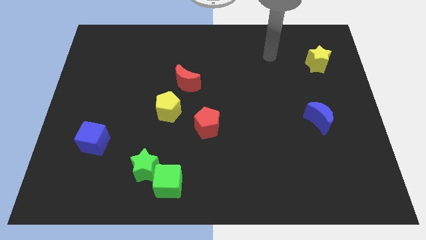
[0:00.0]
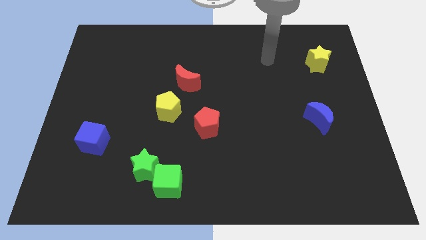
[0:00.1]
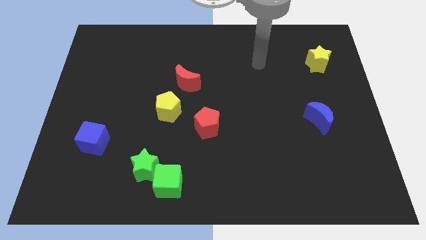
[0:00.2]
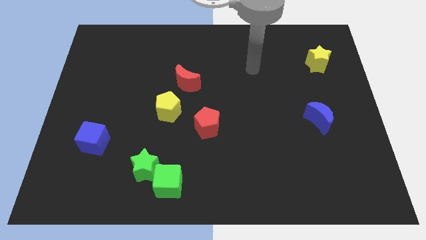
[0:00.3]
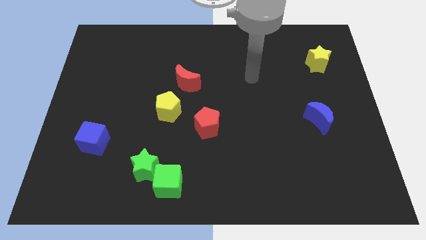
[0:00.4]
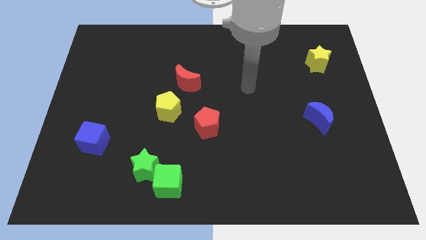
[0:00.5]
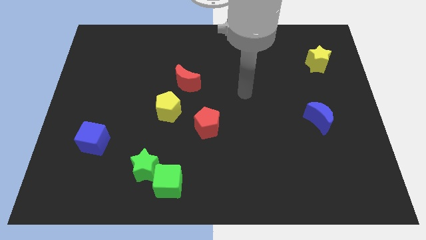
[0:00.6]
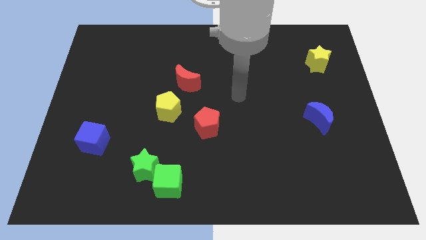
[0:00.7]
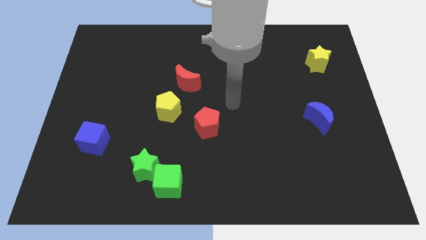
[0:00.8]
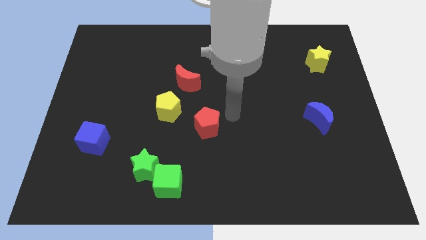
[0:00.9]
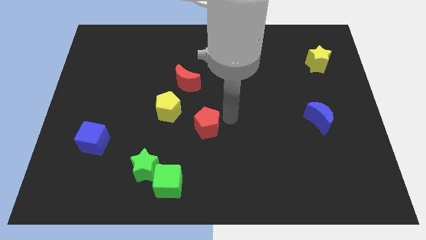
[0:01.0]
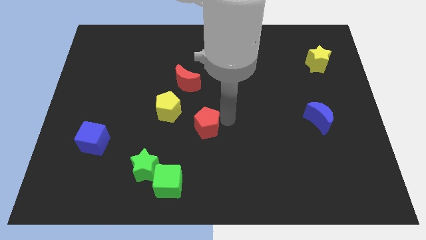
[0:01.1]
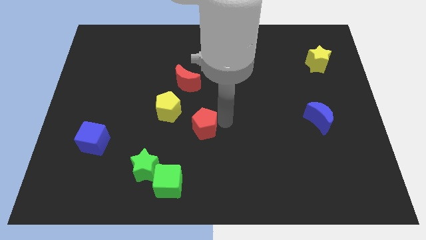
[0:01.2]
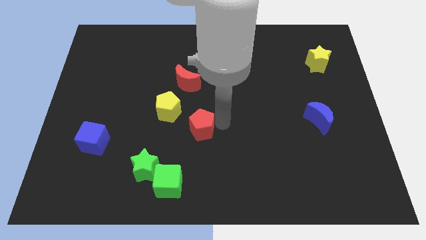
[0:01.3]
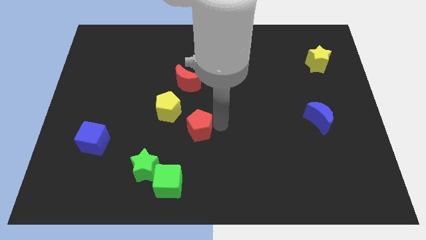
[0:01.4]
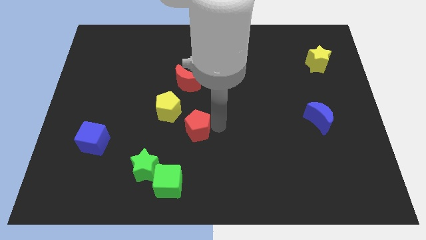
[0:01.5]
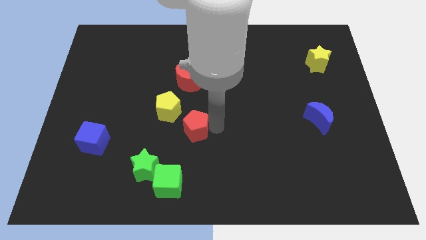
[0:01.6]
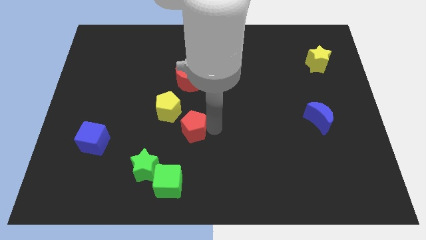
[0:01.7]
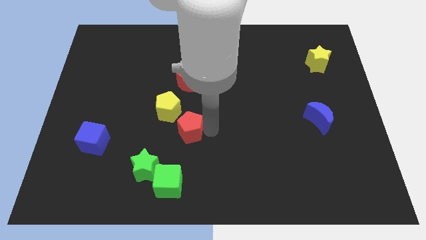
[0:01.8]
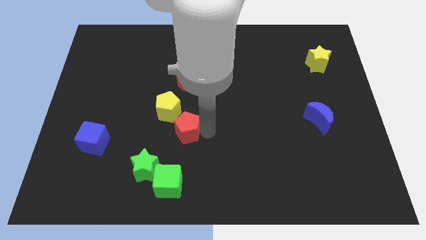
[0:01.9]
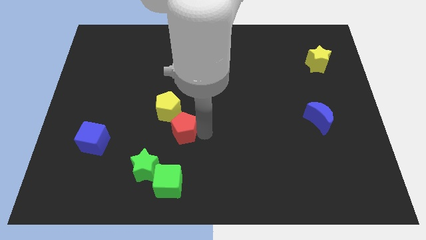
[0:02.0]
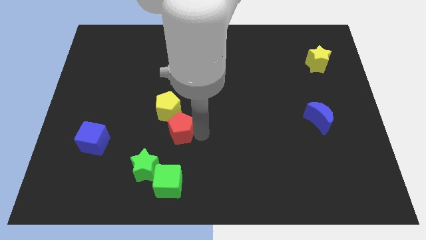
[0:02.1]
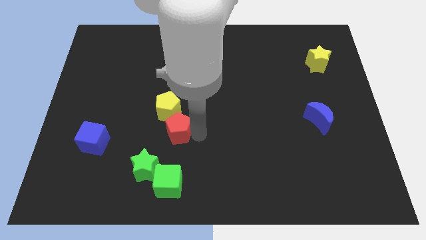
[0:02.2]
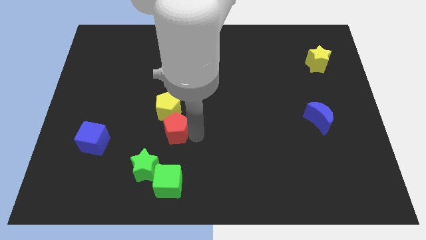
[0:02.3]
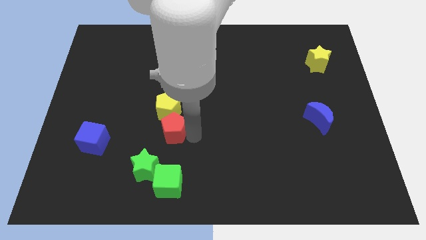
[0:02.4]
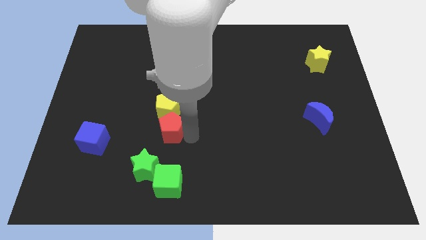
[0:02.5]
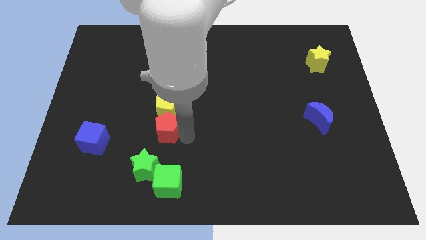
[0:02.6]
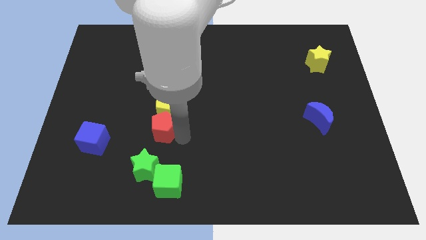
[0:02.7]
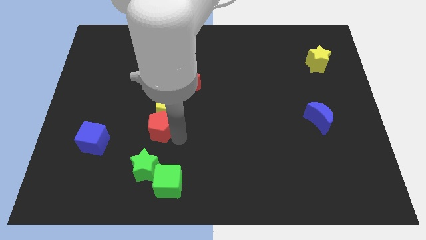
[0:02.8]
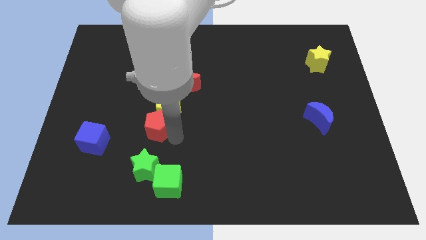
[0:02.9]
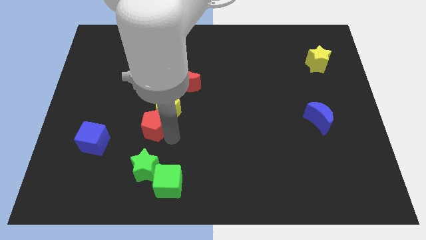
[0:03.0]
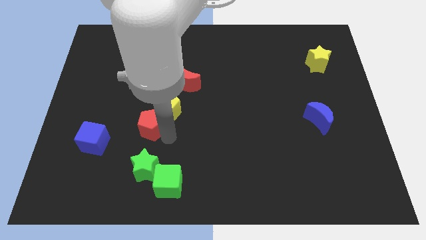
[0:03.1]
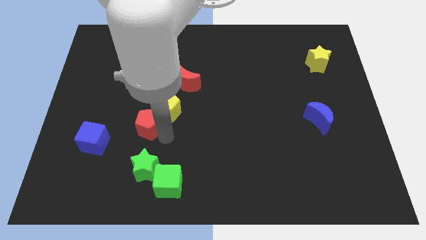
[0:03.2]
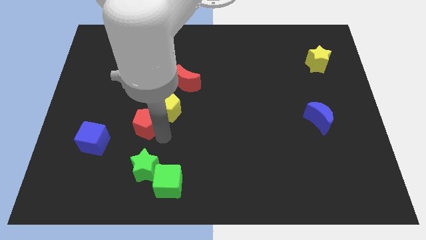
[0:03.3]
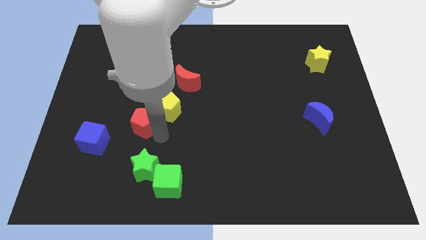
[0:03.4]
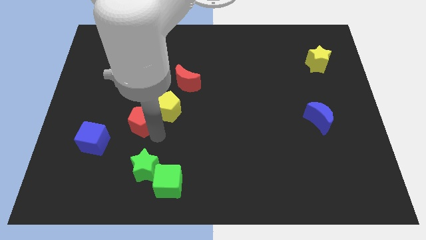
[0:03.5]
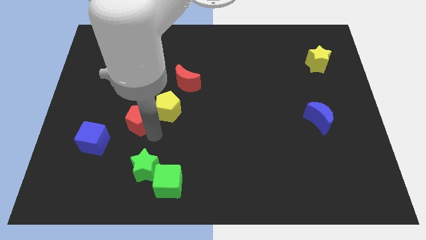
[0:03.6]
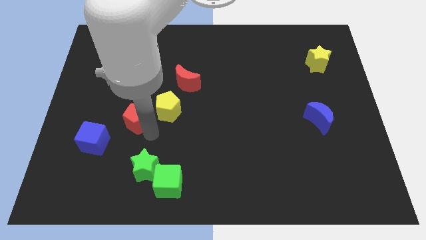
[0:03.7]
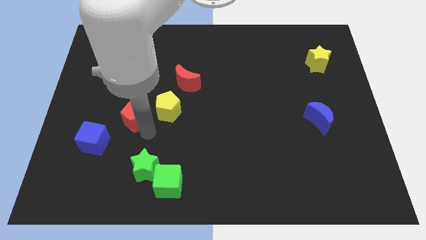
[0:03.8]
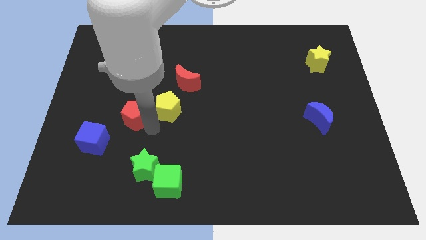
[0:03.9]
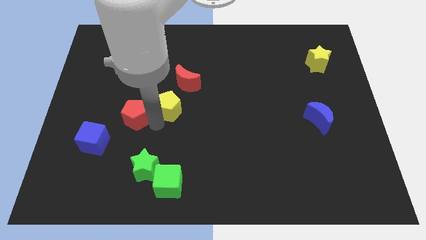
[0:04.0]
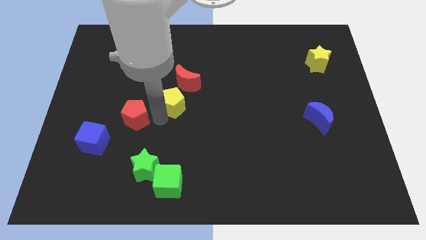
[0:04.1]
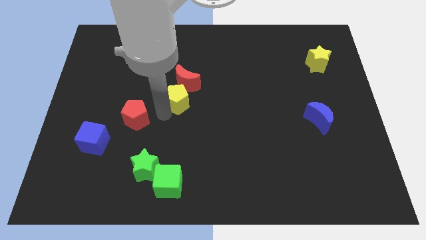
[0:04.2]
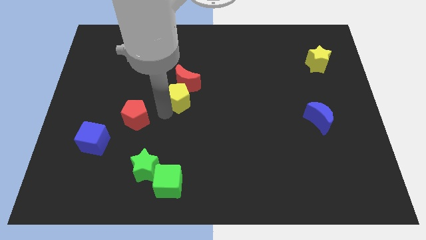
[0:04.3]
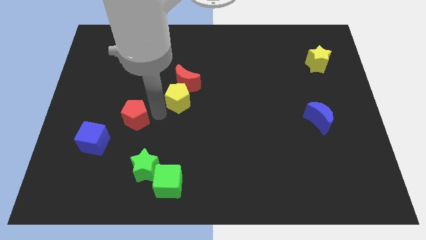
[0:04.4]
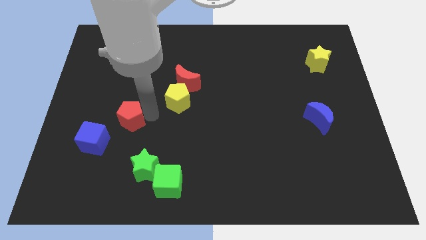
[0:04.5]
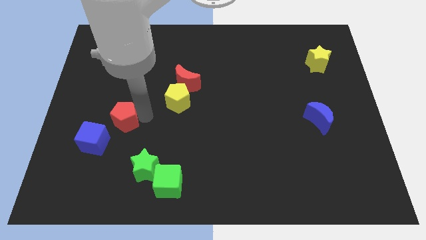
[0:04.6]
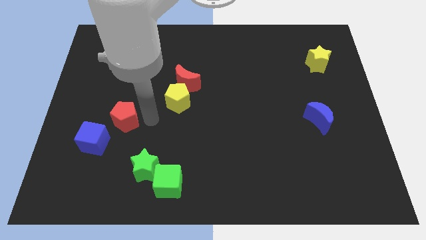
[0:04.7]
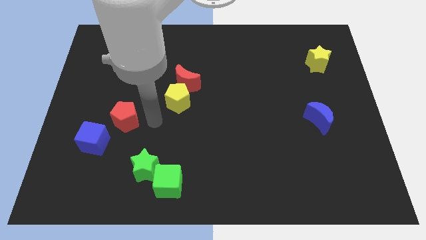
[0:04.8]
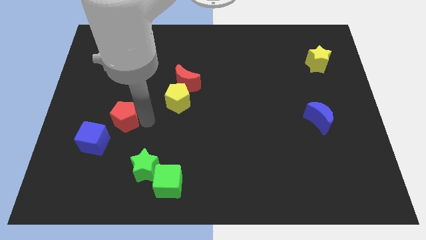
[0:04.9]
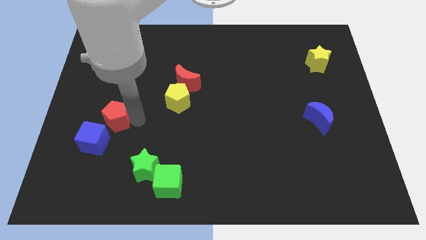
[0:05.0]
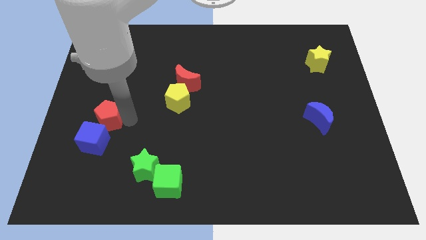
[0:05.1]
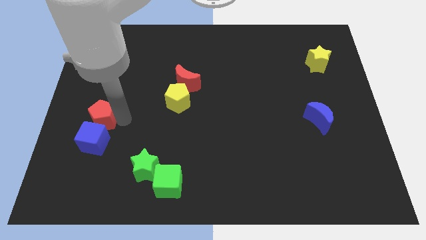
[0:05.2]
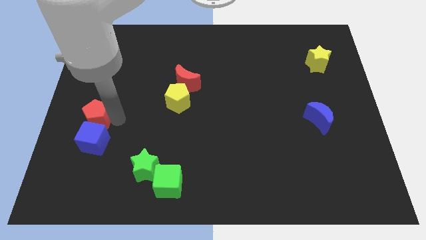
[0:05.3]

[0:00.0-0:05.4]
slide the red pentagon to the left side of the board

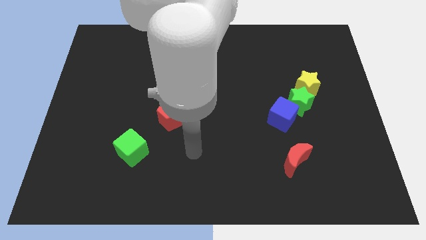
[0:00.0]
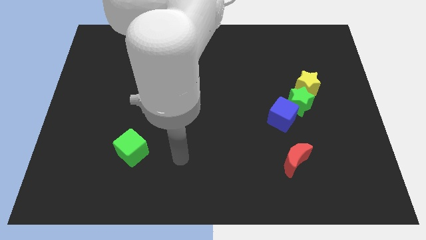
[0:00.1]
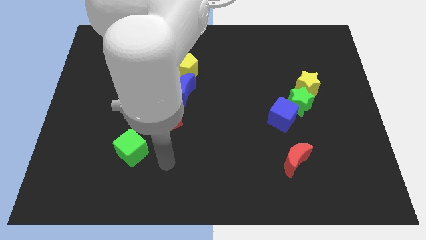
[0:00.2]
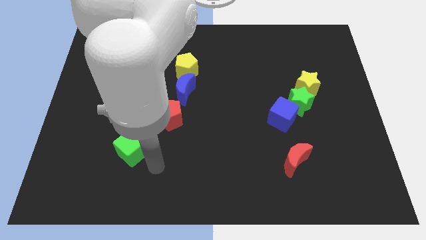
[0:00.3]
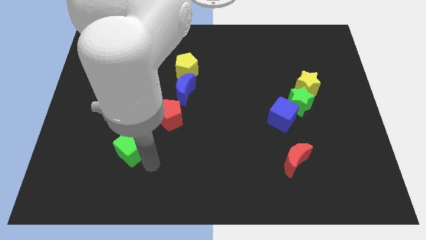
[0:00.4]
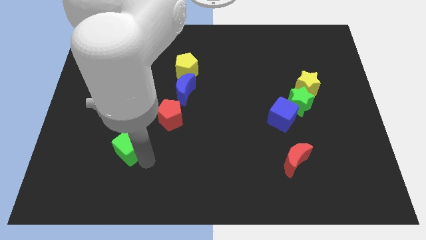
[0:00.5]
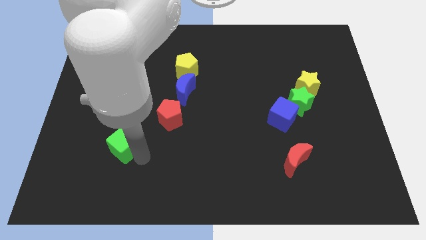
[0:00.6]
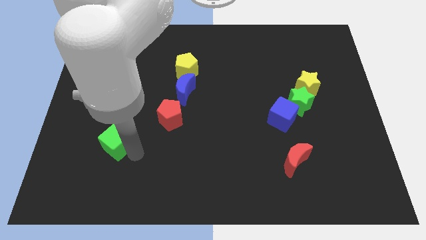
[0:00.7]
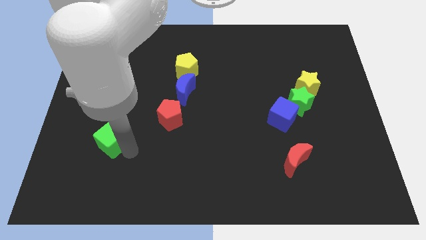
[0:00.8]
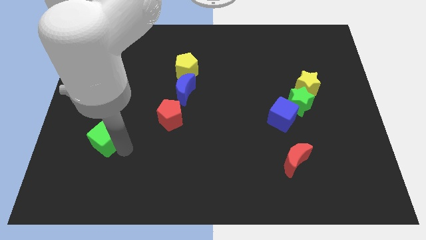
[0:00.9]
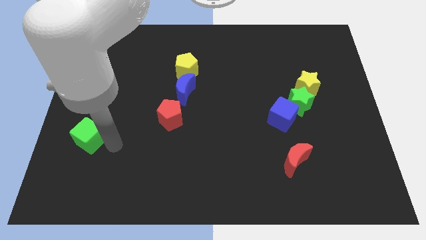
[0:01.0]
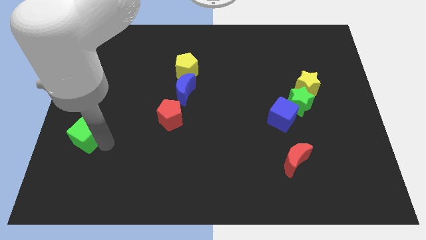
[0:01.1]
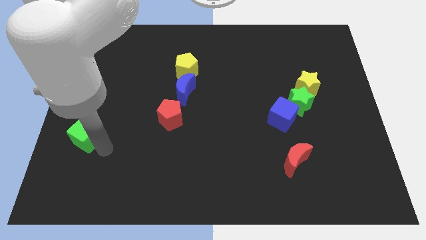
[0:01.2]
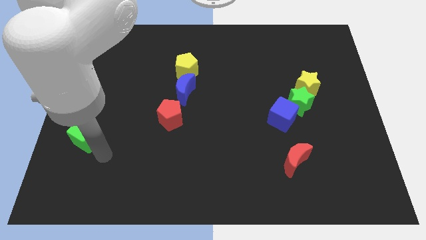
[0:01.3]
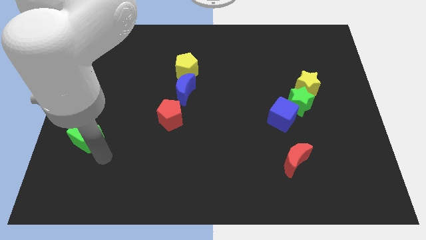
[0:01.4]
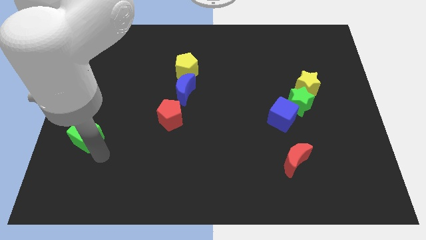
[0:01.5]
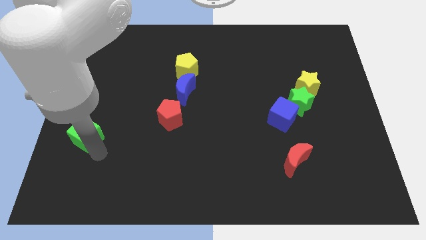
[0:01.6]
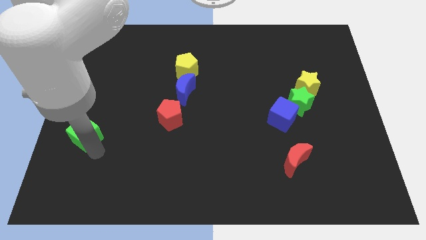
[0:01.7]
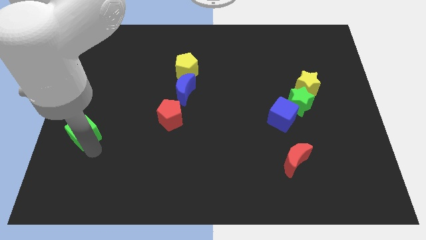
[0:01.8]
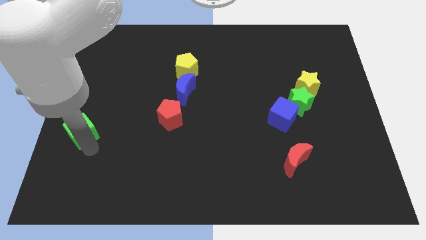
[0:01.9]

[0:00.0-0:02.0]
move the green cube to the center left
